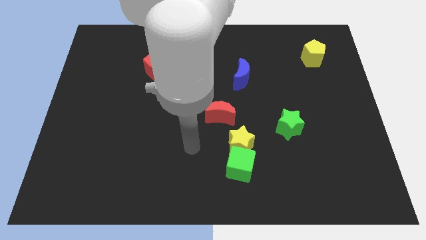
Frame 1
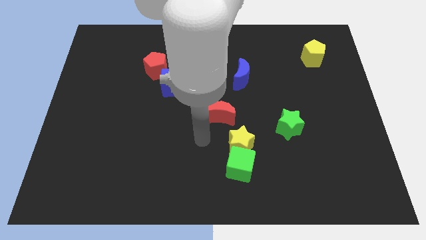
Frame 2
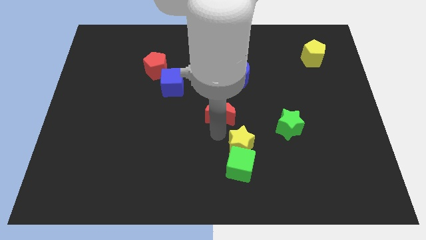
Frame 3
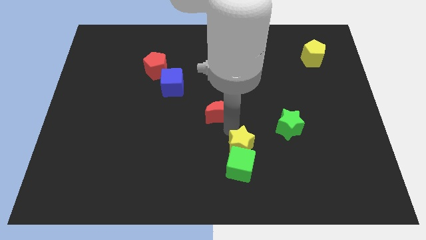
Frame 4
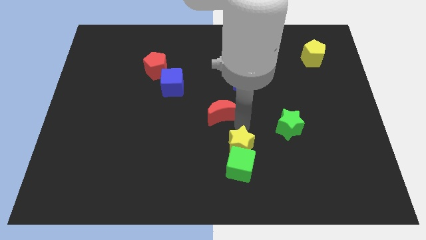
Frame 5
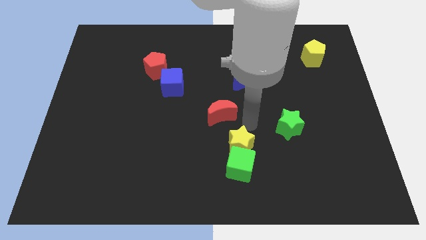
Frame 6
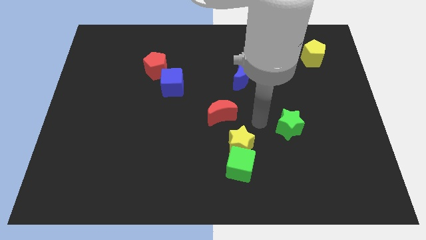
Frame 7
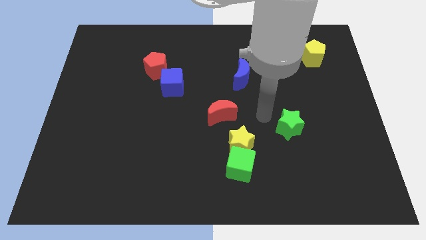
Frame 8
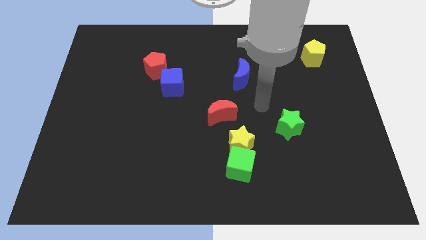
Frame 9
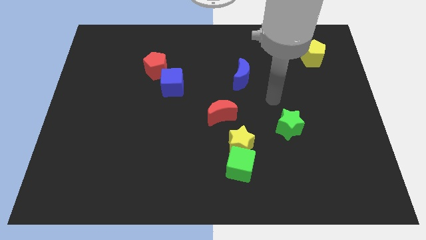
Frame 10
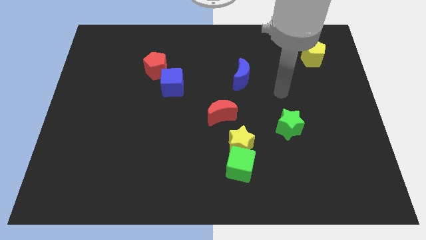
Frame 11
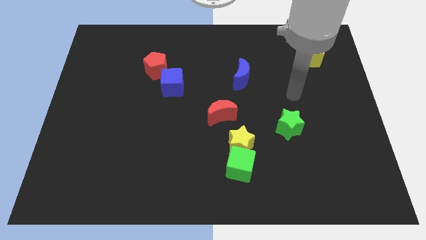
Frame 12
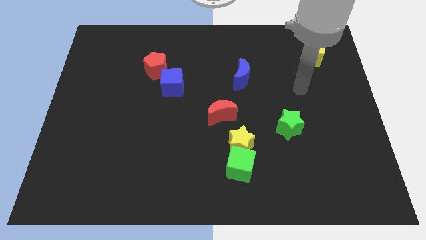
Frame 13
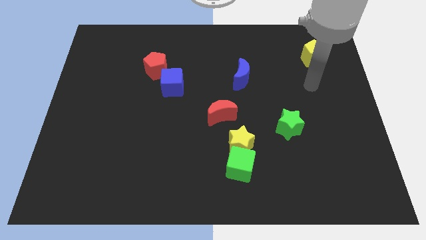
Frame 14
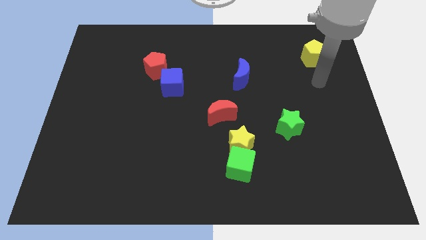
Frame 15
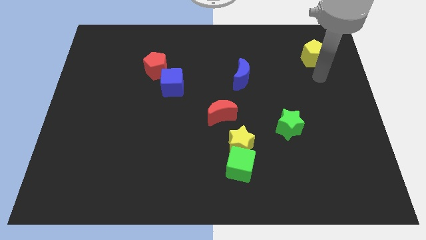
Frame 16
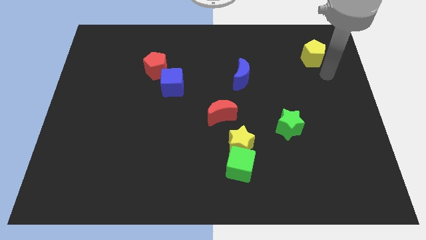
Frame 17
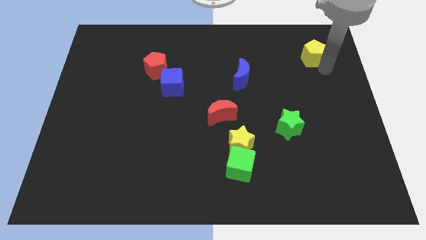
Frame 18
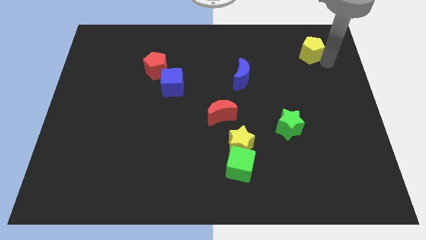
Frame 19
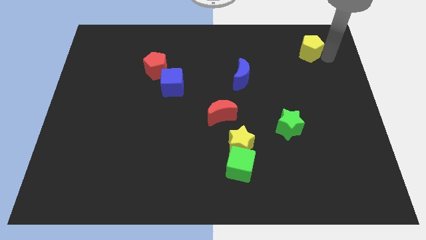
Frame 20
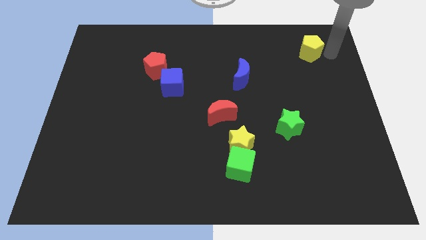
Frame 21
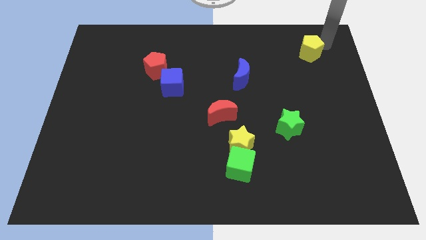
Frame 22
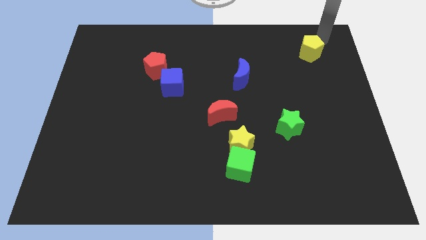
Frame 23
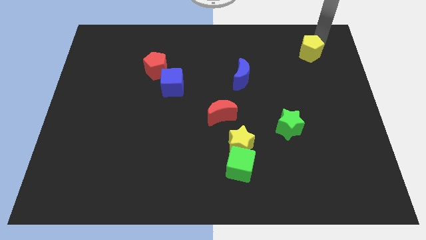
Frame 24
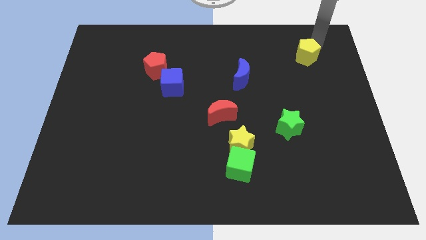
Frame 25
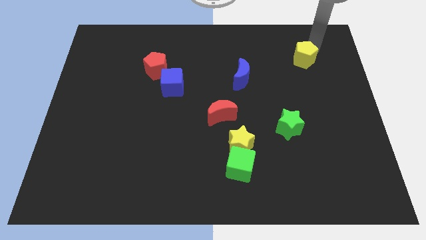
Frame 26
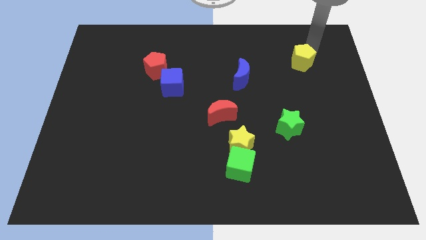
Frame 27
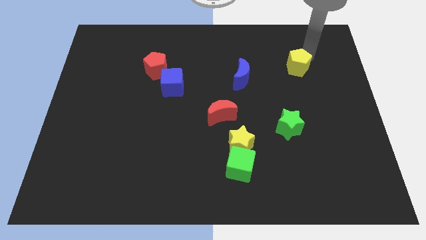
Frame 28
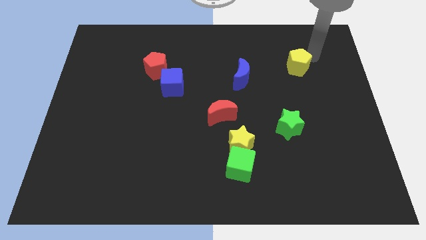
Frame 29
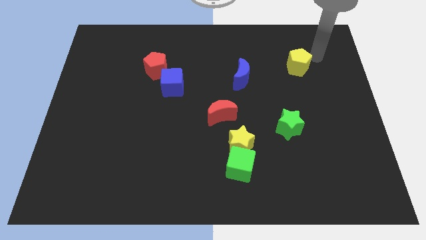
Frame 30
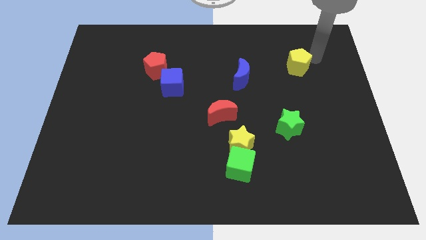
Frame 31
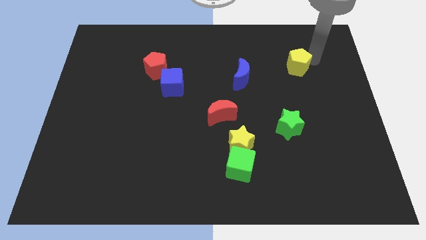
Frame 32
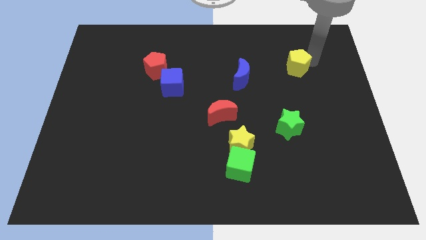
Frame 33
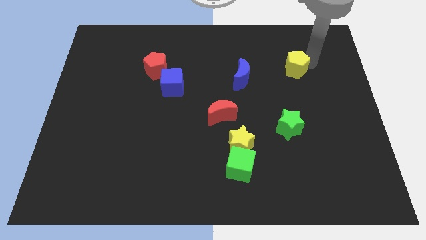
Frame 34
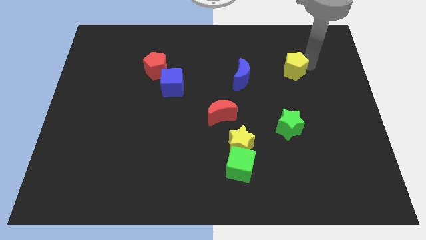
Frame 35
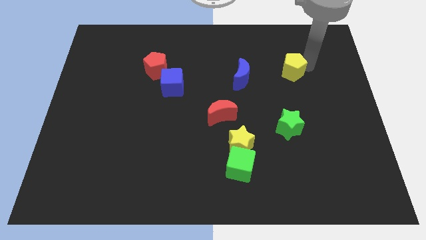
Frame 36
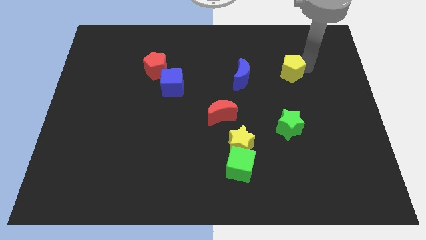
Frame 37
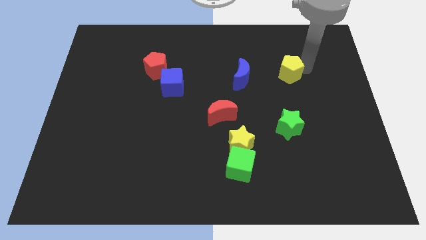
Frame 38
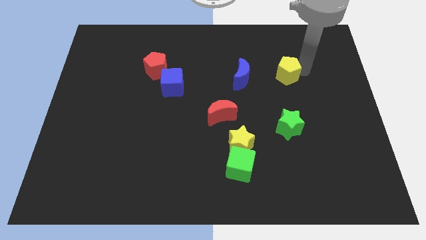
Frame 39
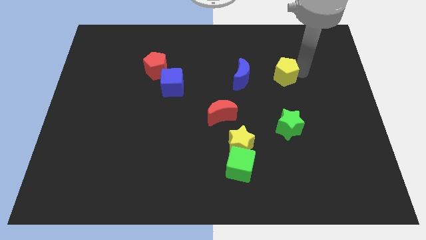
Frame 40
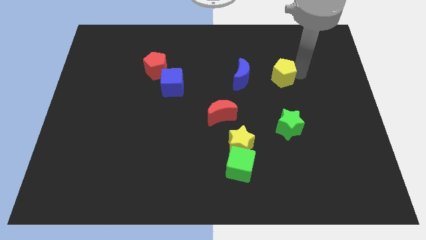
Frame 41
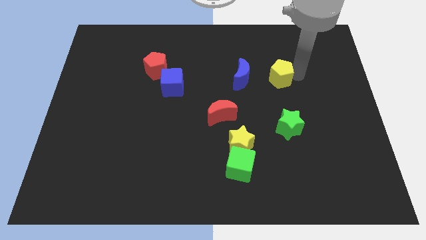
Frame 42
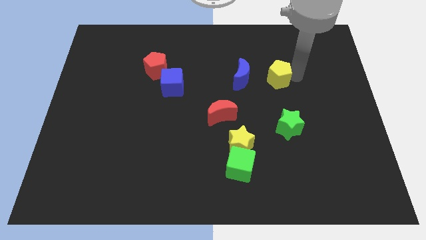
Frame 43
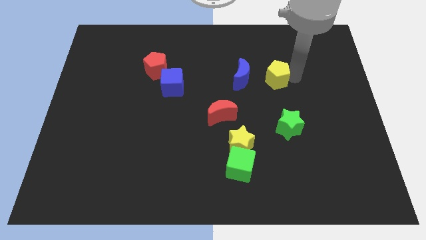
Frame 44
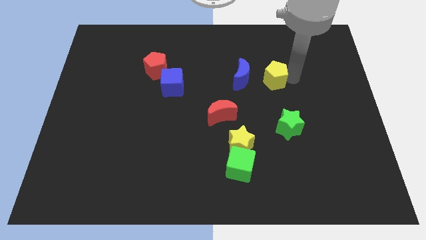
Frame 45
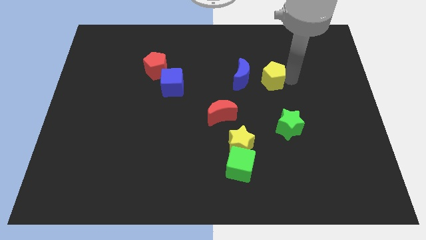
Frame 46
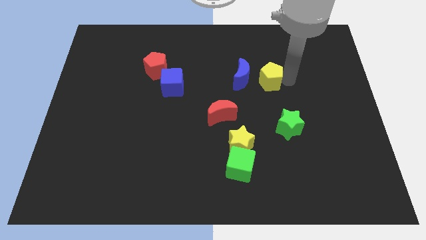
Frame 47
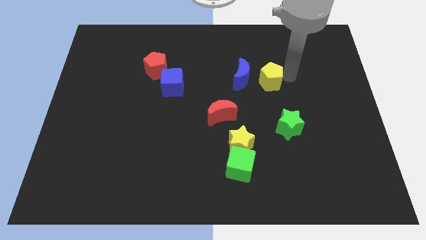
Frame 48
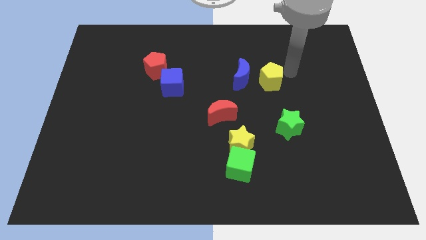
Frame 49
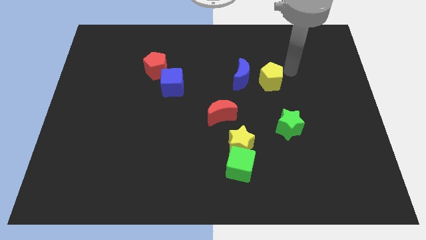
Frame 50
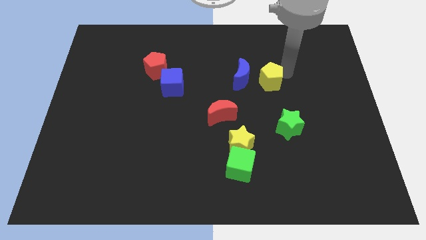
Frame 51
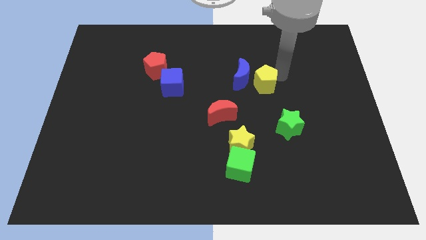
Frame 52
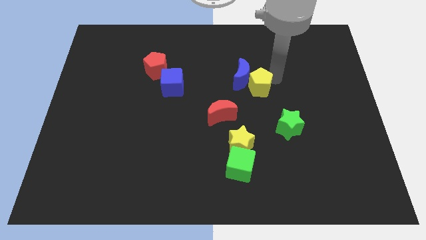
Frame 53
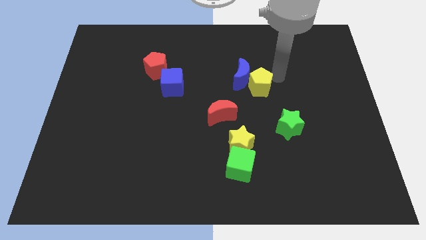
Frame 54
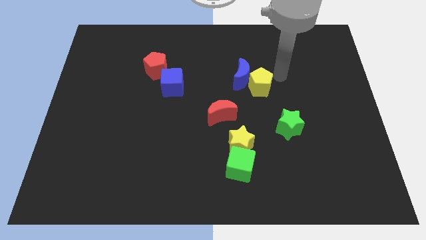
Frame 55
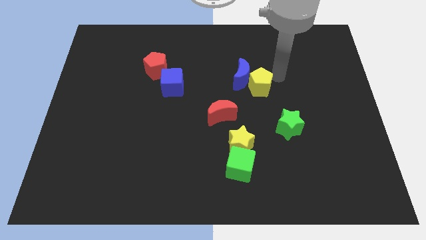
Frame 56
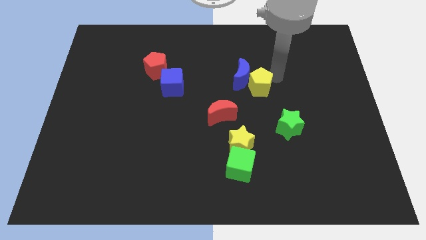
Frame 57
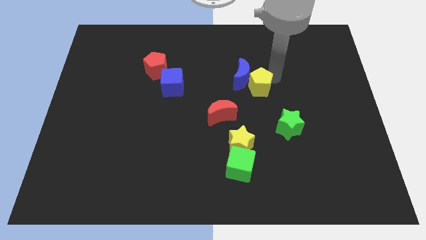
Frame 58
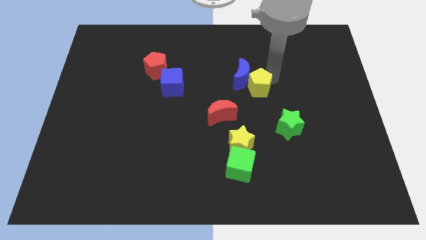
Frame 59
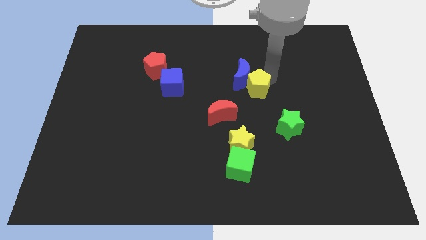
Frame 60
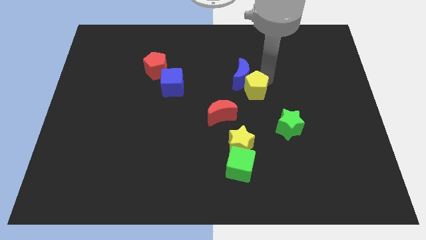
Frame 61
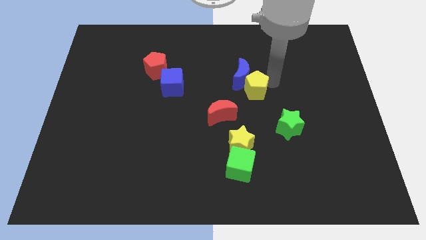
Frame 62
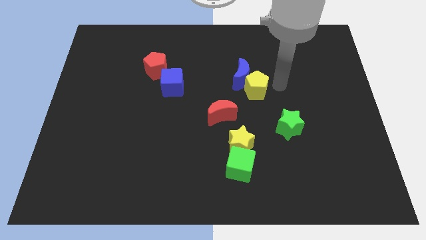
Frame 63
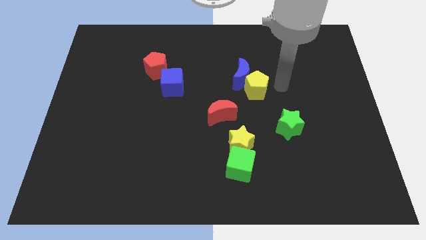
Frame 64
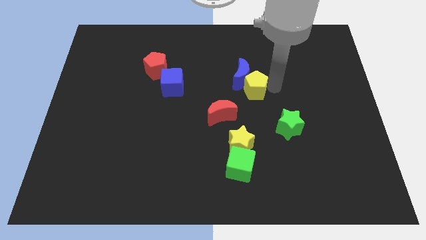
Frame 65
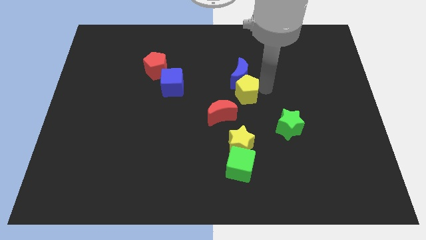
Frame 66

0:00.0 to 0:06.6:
put the yellow pentagon diagonally down and to the left of the blue moon

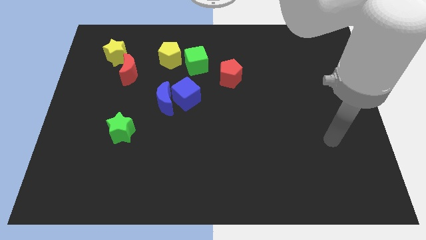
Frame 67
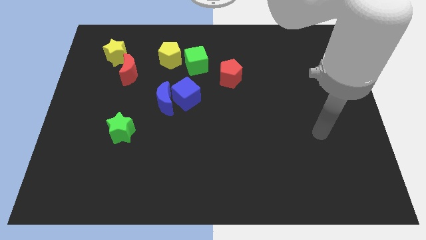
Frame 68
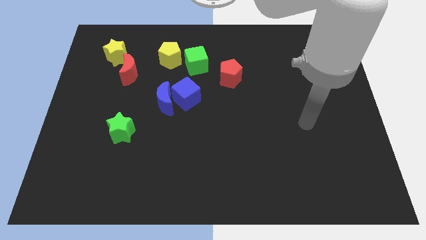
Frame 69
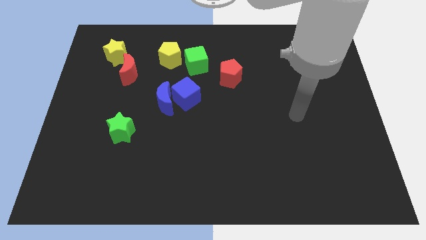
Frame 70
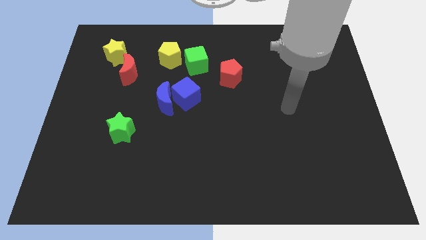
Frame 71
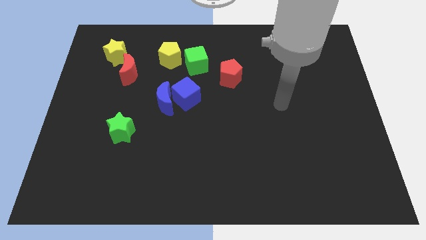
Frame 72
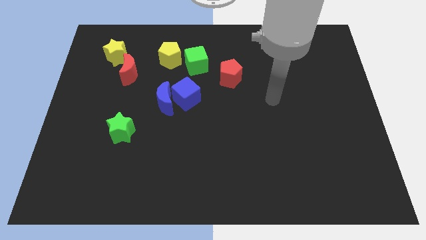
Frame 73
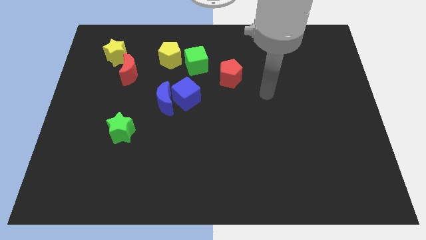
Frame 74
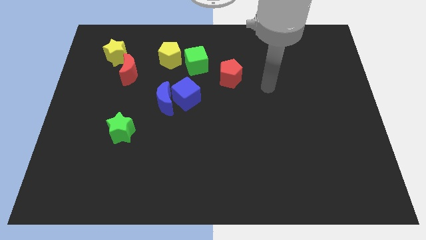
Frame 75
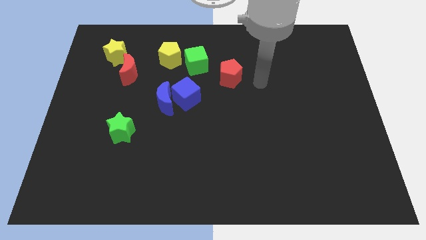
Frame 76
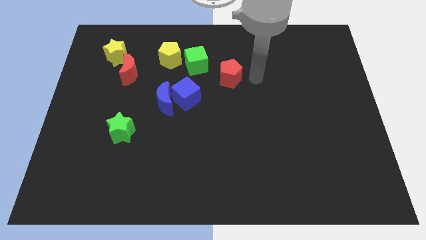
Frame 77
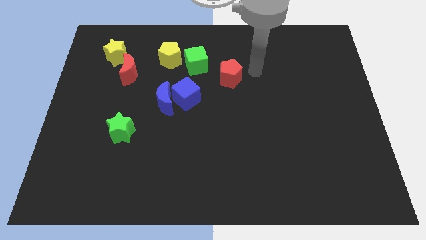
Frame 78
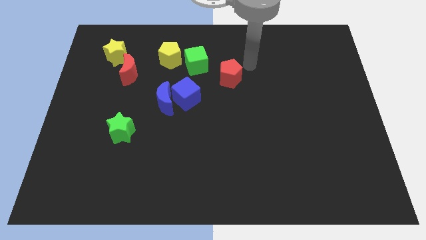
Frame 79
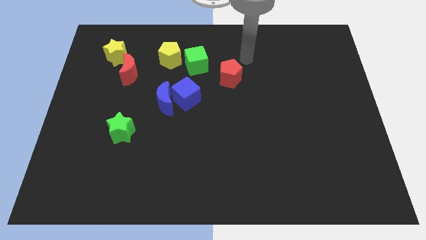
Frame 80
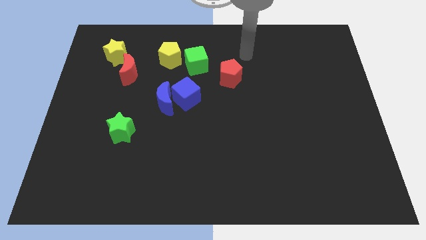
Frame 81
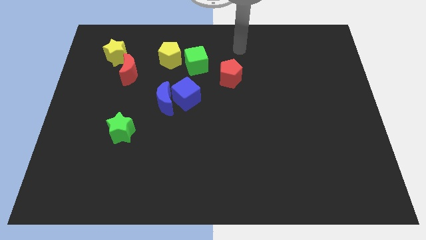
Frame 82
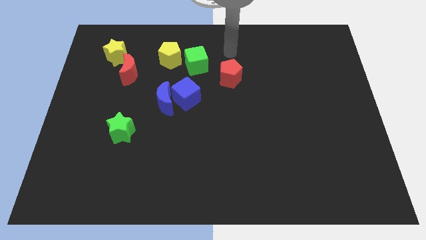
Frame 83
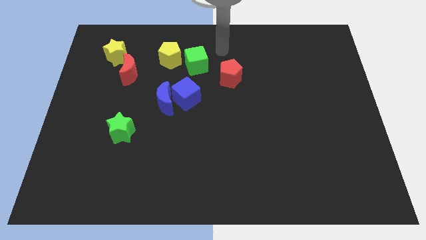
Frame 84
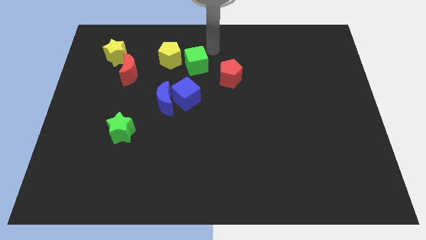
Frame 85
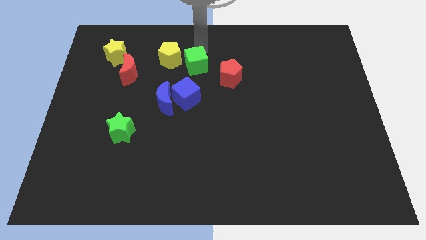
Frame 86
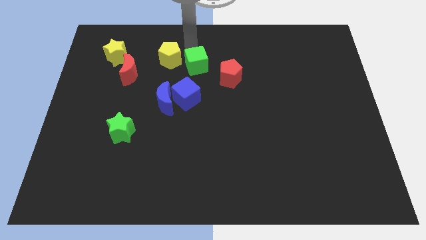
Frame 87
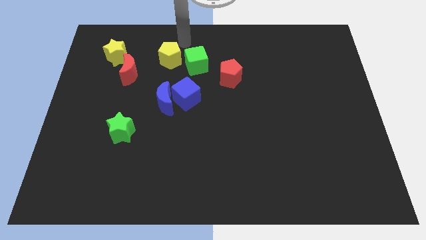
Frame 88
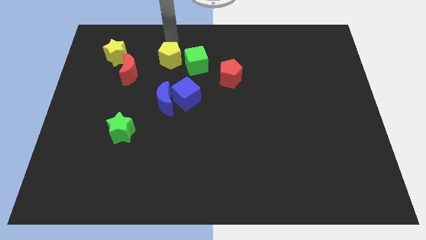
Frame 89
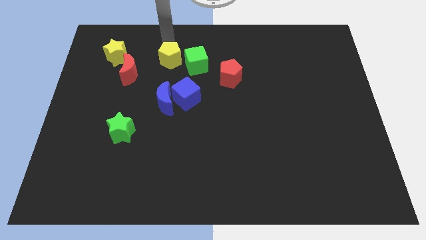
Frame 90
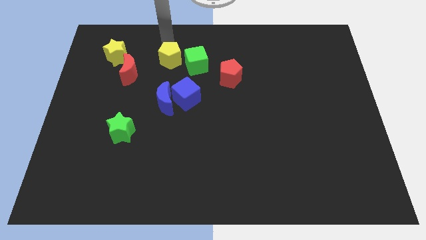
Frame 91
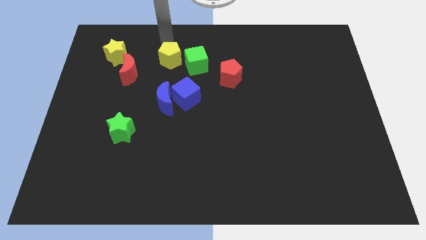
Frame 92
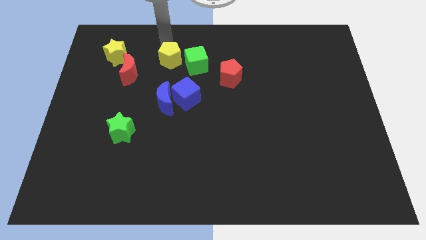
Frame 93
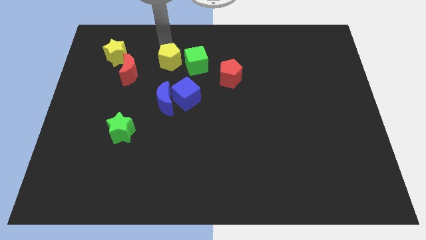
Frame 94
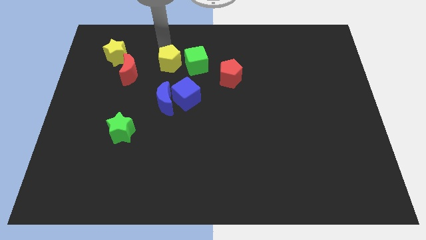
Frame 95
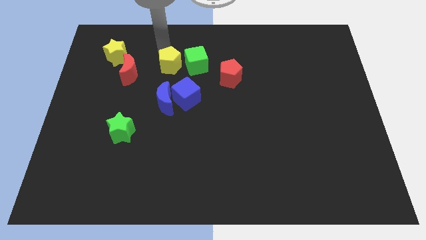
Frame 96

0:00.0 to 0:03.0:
push the yellow pentagon to the bottom left side of the green cube
